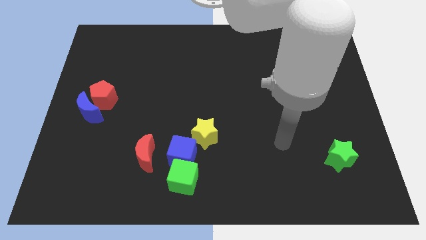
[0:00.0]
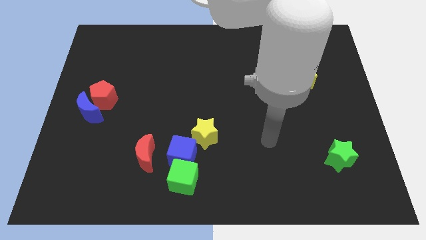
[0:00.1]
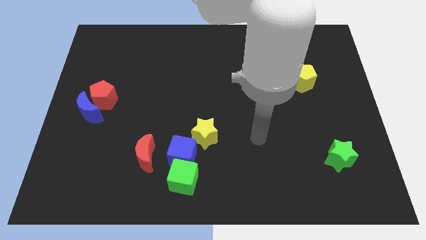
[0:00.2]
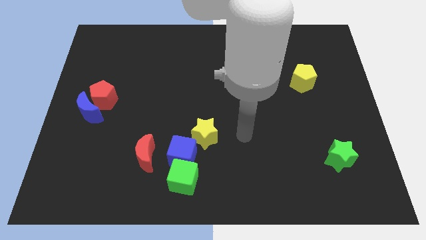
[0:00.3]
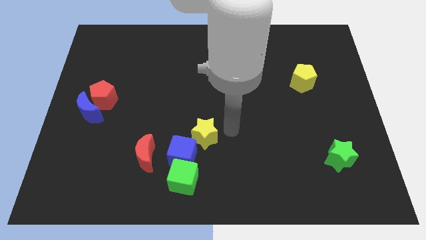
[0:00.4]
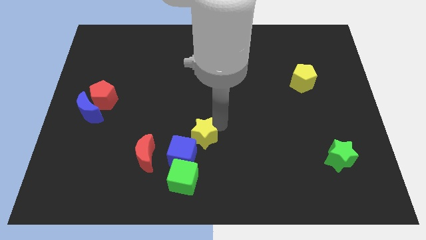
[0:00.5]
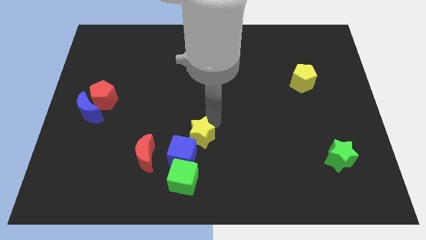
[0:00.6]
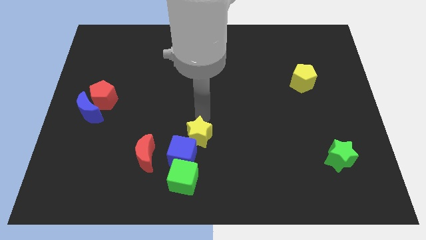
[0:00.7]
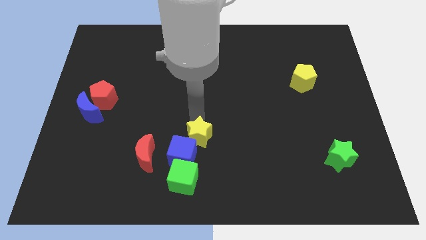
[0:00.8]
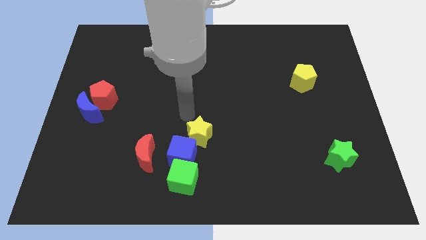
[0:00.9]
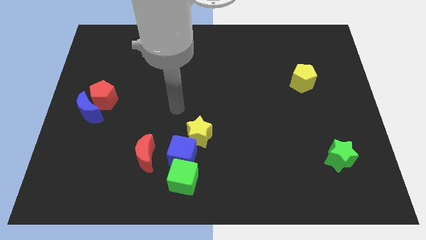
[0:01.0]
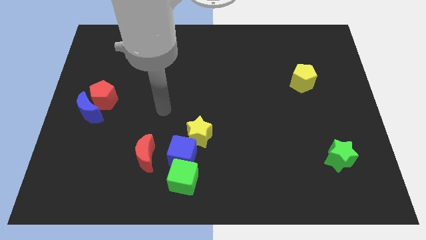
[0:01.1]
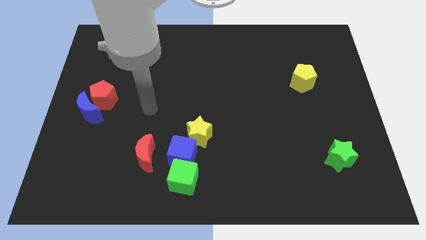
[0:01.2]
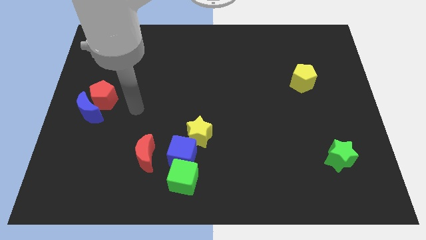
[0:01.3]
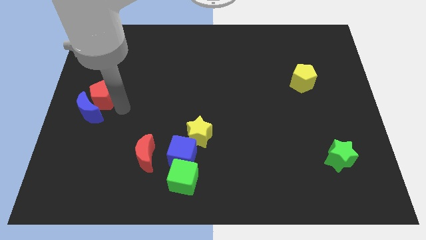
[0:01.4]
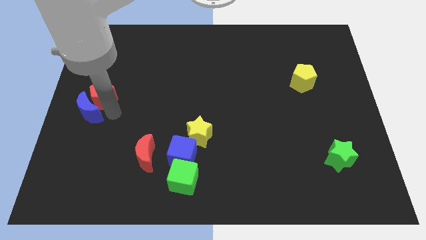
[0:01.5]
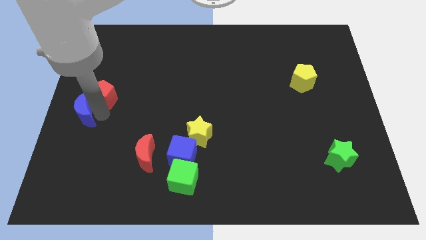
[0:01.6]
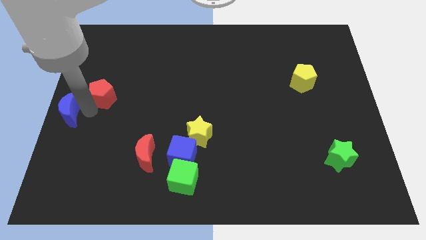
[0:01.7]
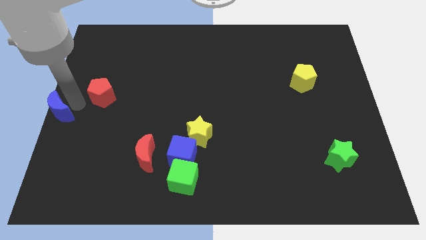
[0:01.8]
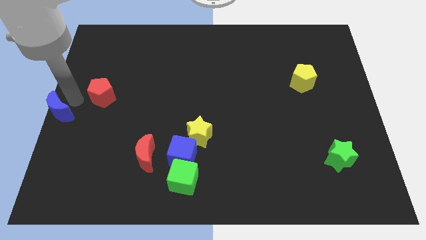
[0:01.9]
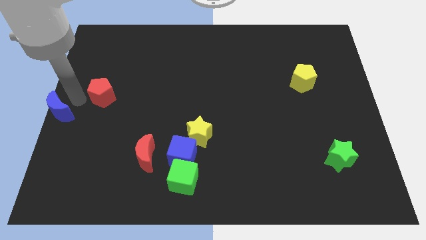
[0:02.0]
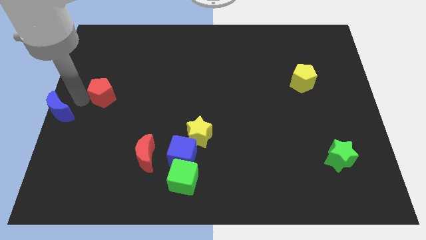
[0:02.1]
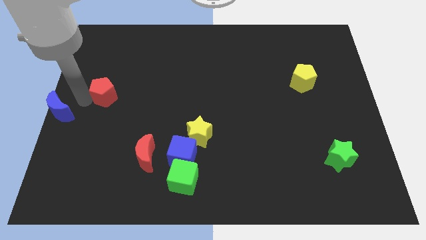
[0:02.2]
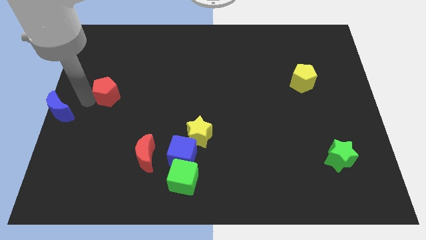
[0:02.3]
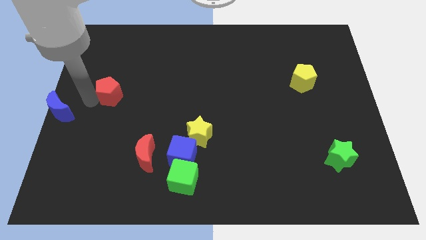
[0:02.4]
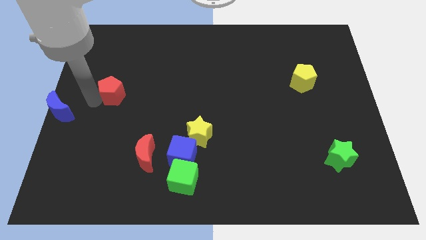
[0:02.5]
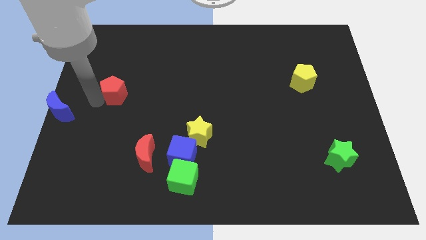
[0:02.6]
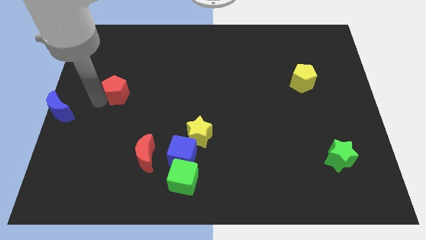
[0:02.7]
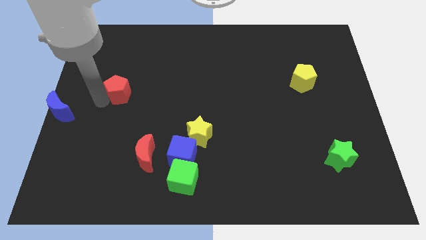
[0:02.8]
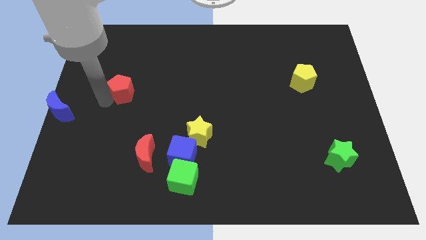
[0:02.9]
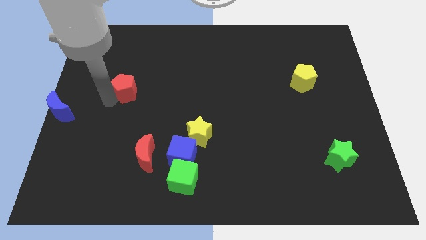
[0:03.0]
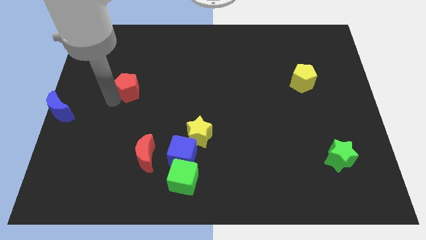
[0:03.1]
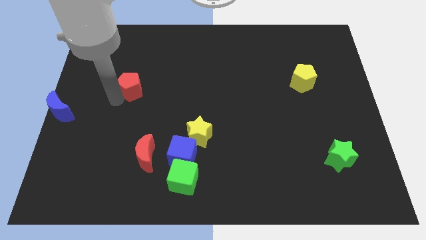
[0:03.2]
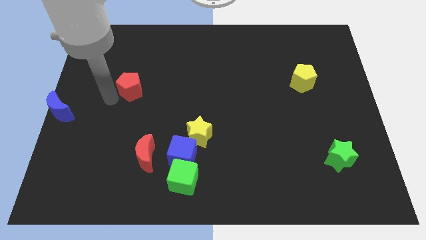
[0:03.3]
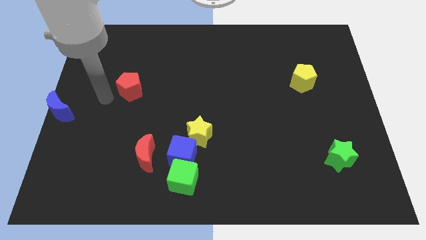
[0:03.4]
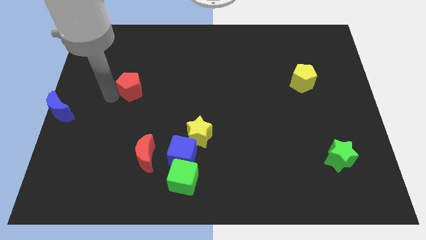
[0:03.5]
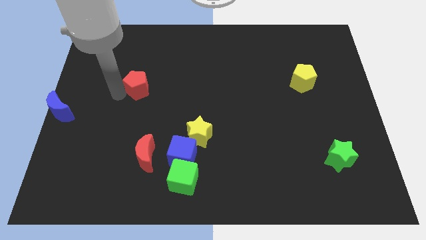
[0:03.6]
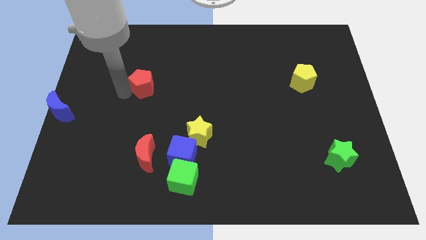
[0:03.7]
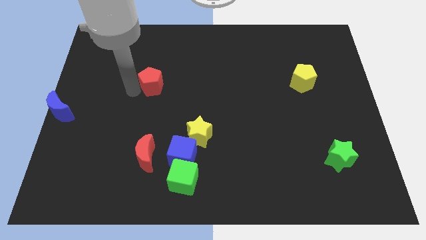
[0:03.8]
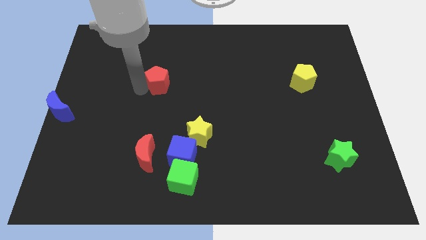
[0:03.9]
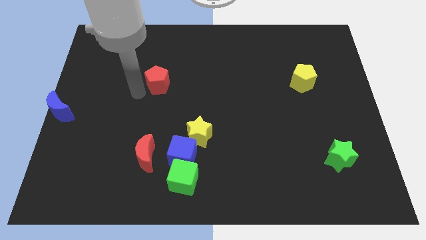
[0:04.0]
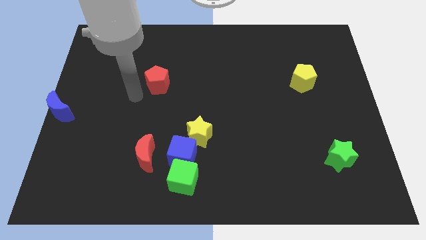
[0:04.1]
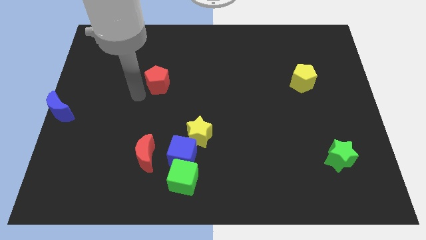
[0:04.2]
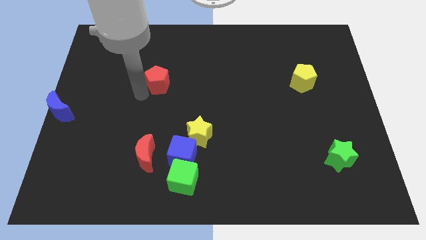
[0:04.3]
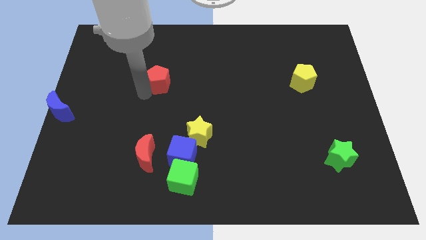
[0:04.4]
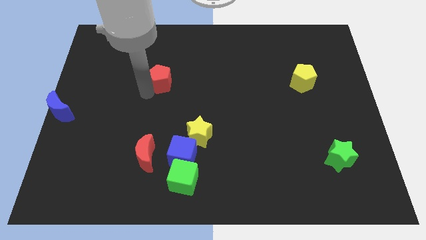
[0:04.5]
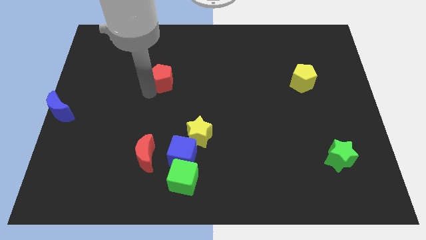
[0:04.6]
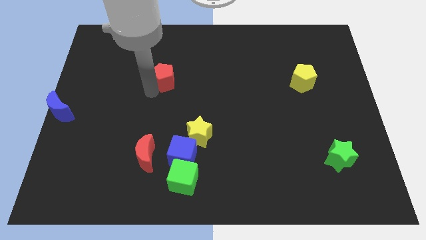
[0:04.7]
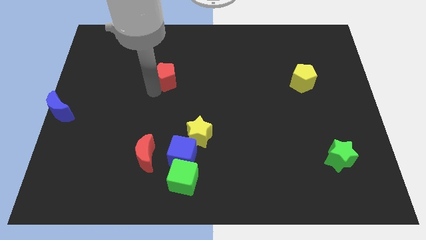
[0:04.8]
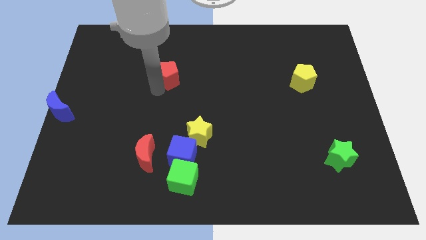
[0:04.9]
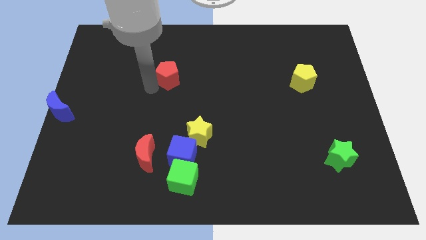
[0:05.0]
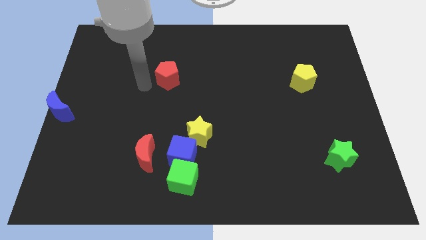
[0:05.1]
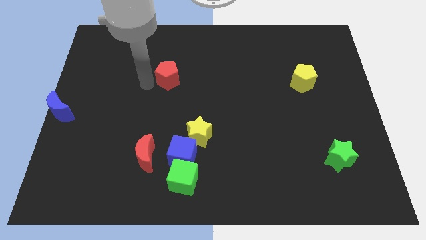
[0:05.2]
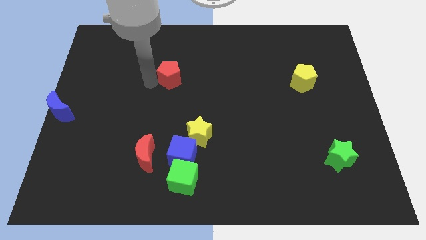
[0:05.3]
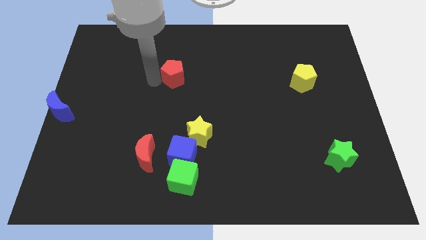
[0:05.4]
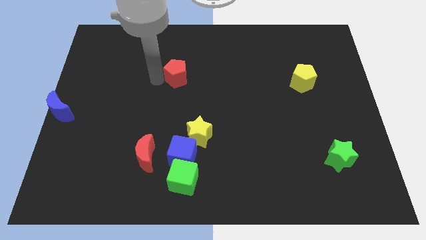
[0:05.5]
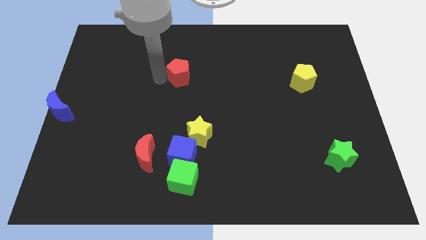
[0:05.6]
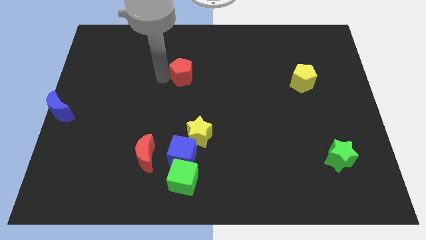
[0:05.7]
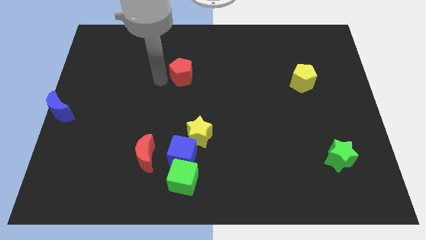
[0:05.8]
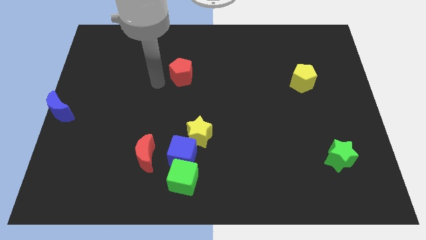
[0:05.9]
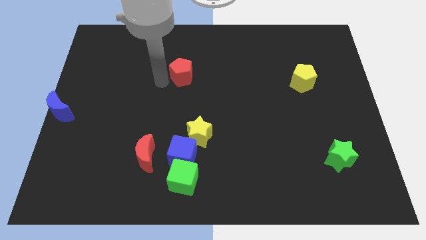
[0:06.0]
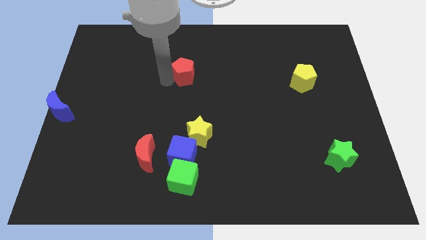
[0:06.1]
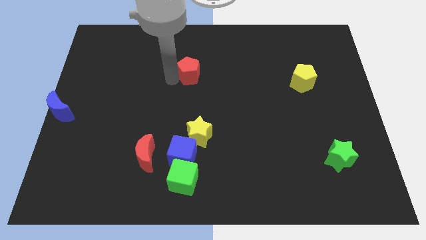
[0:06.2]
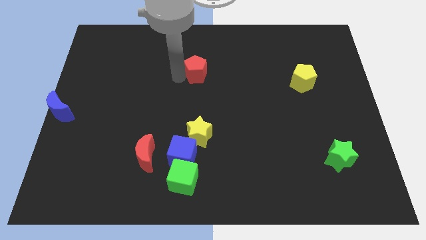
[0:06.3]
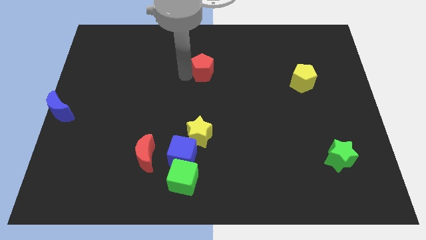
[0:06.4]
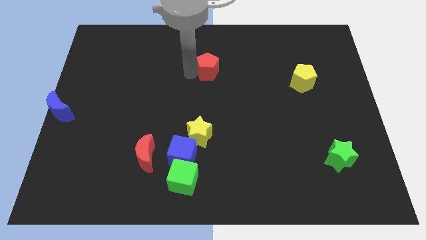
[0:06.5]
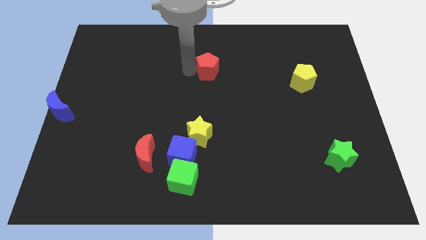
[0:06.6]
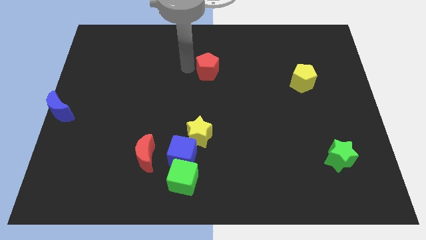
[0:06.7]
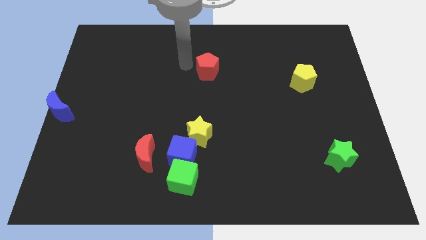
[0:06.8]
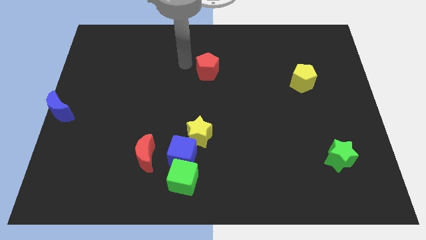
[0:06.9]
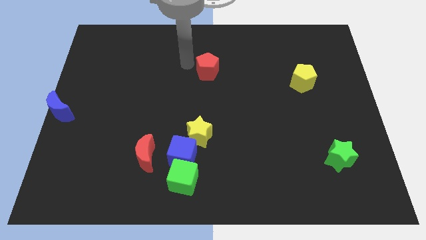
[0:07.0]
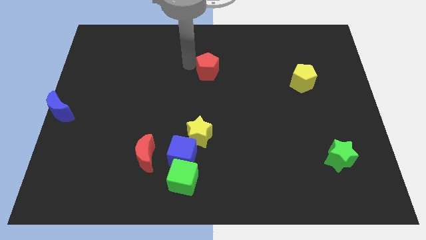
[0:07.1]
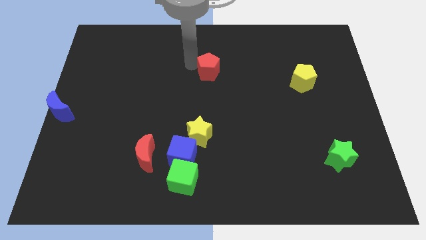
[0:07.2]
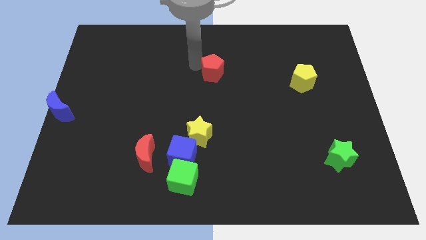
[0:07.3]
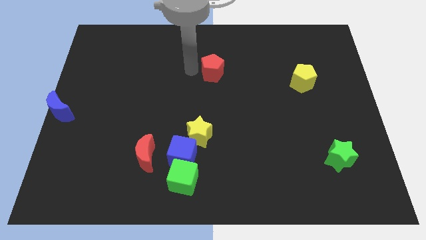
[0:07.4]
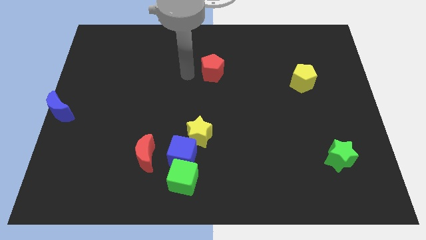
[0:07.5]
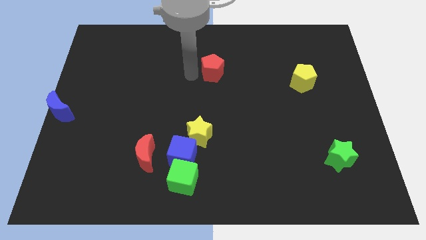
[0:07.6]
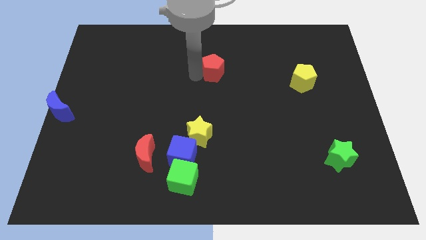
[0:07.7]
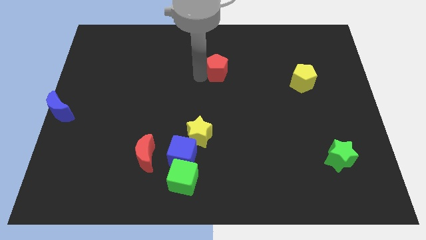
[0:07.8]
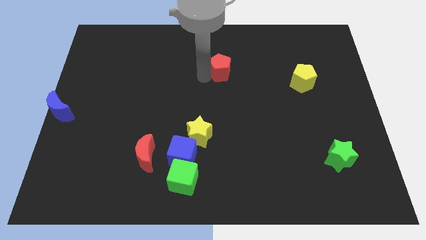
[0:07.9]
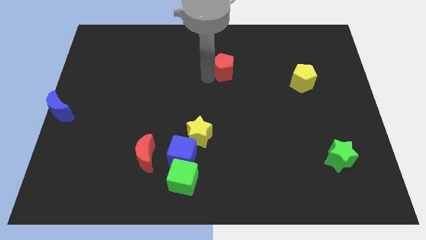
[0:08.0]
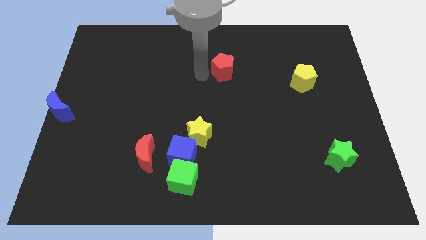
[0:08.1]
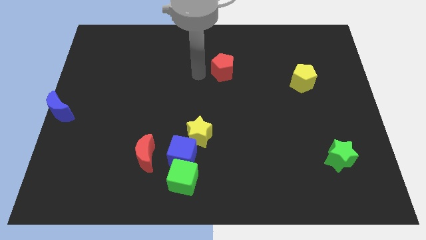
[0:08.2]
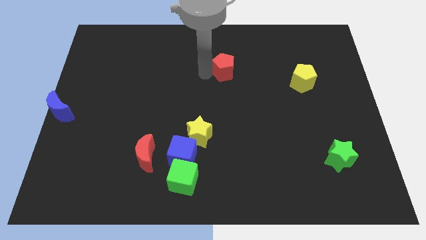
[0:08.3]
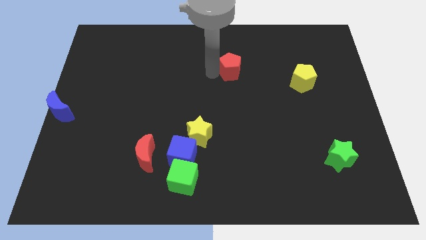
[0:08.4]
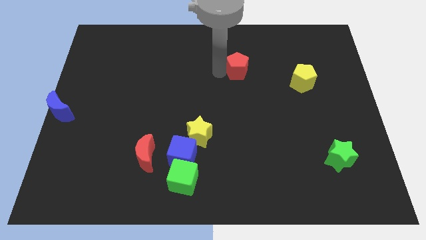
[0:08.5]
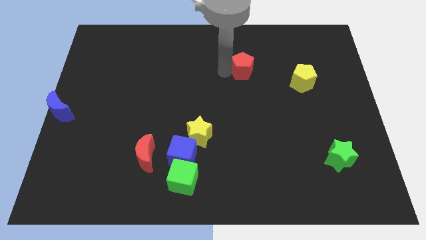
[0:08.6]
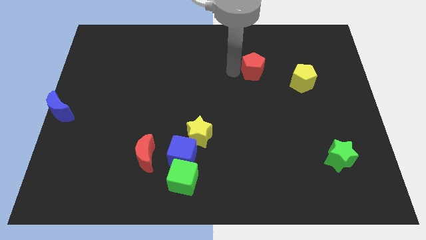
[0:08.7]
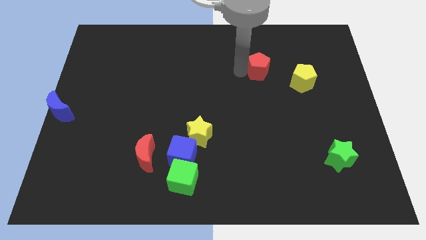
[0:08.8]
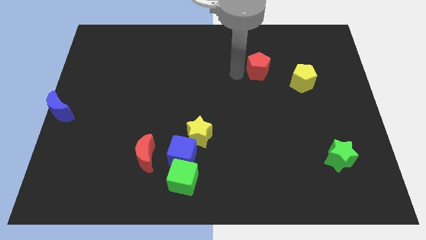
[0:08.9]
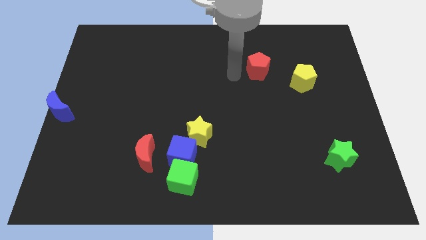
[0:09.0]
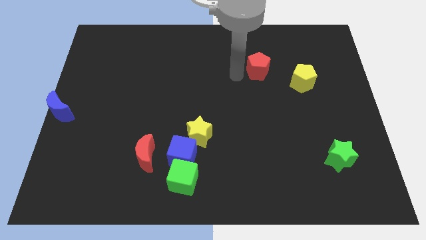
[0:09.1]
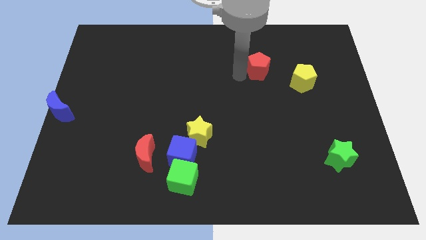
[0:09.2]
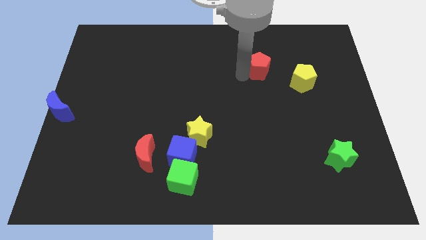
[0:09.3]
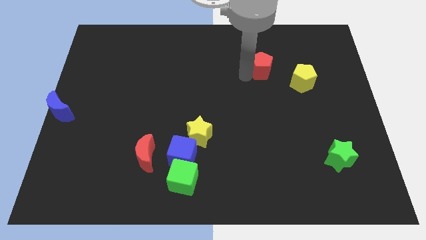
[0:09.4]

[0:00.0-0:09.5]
push the red pentagon to the top left of the yellow pentagon
